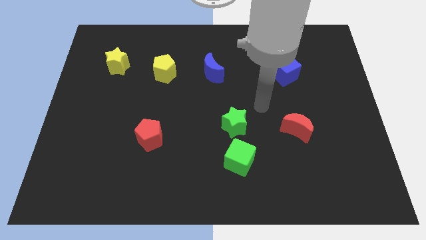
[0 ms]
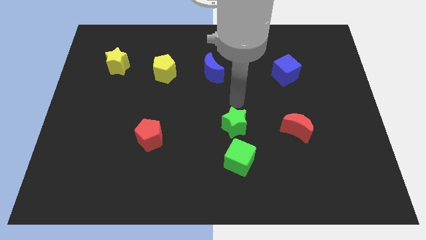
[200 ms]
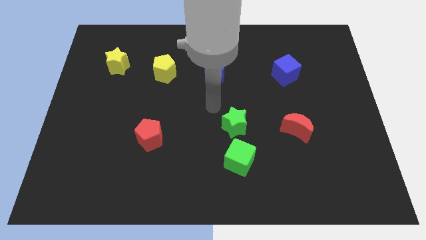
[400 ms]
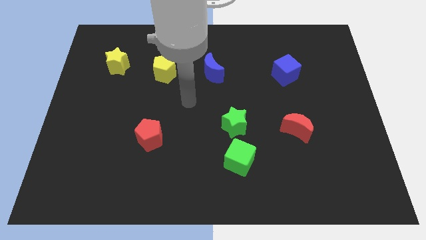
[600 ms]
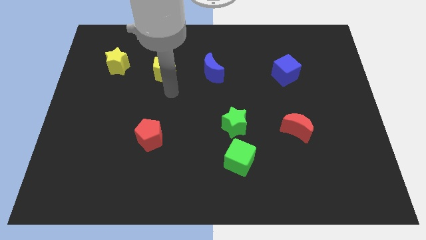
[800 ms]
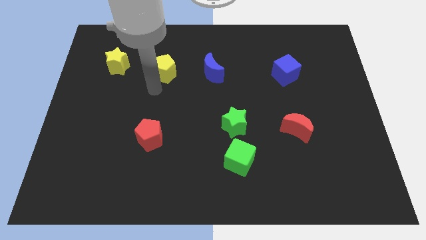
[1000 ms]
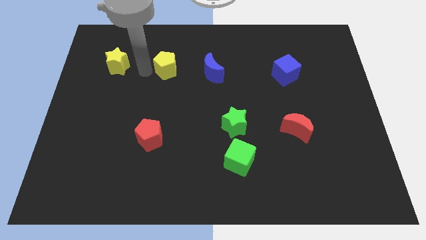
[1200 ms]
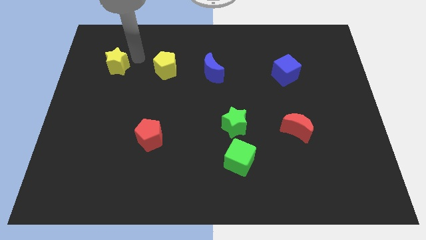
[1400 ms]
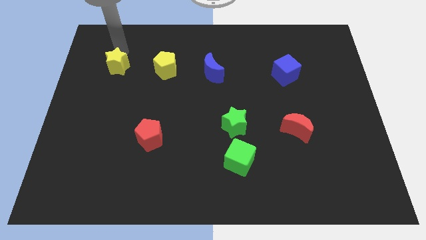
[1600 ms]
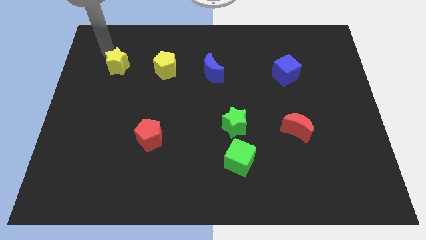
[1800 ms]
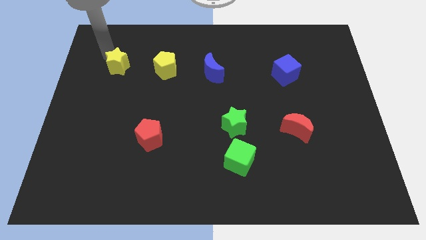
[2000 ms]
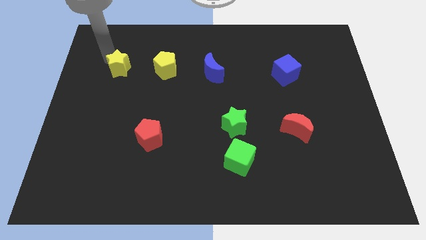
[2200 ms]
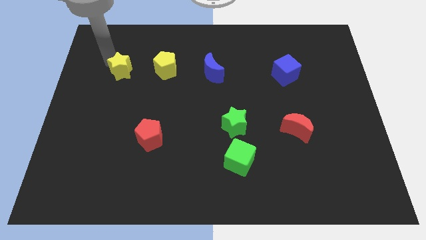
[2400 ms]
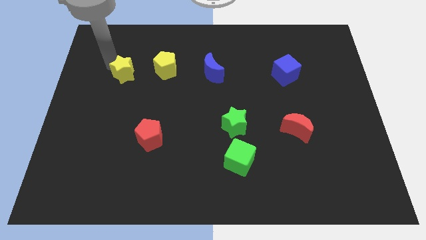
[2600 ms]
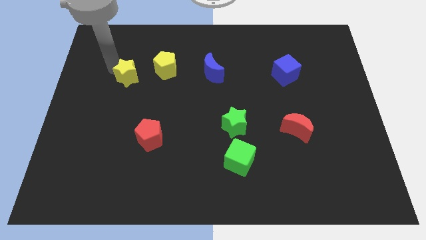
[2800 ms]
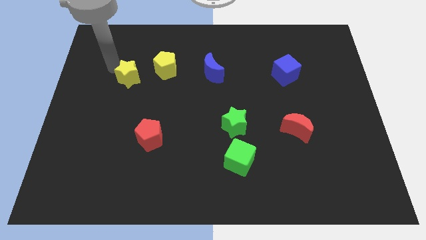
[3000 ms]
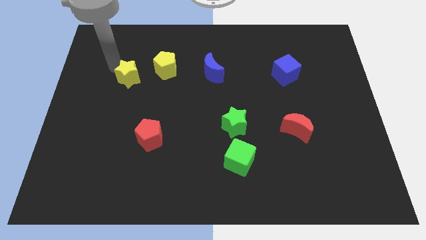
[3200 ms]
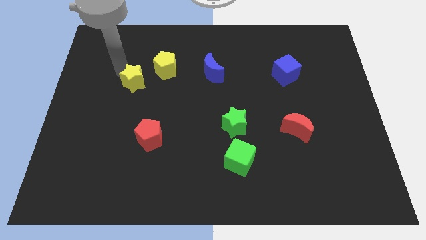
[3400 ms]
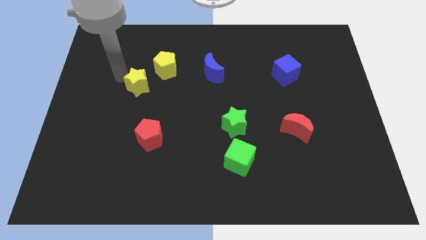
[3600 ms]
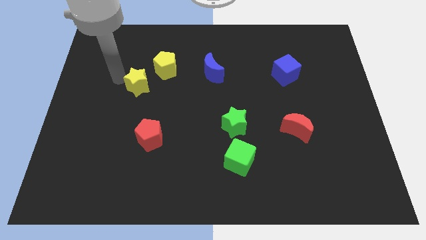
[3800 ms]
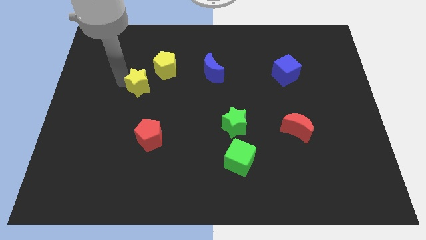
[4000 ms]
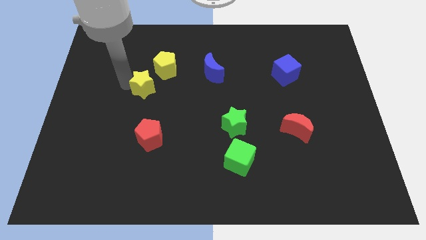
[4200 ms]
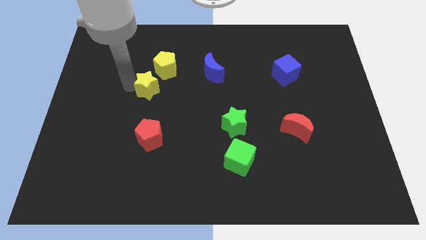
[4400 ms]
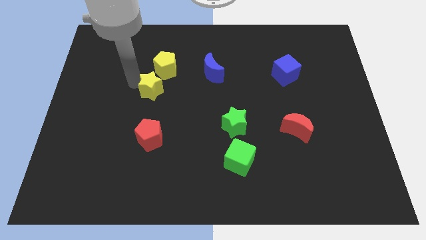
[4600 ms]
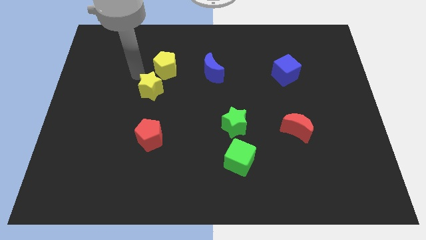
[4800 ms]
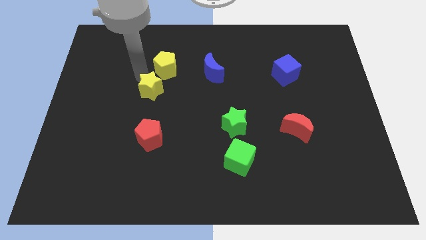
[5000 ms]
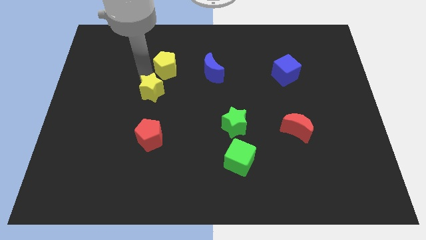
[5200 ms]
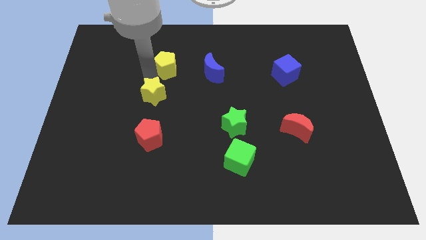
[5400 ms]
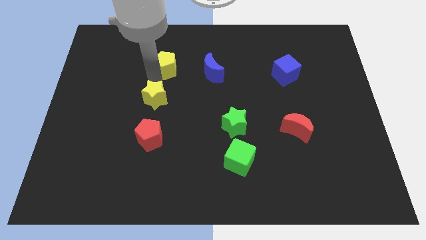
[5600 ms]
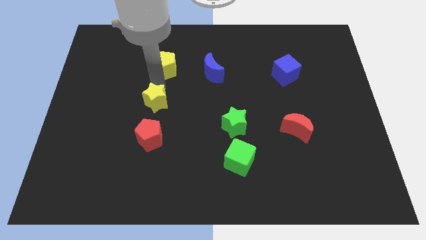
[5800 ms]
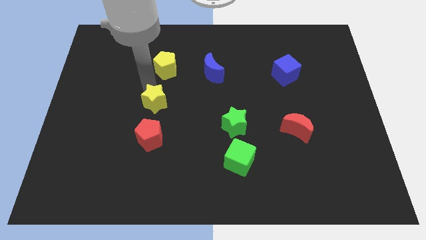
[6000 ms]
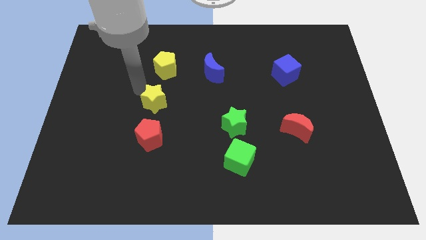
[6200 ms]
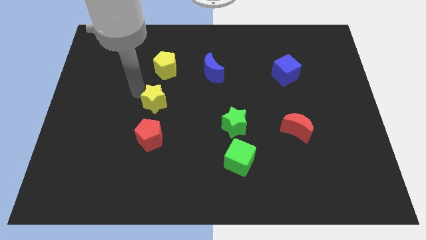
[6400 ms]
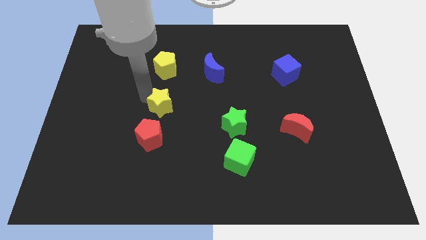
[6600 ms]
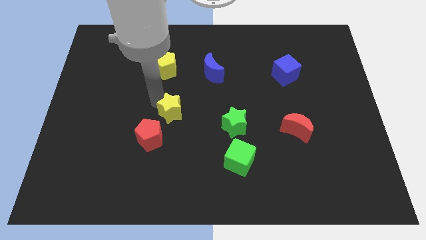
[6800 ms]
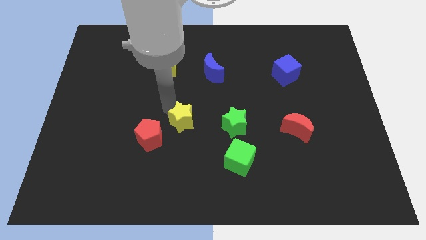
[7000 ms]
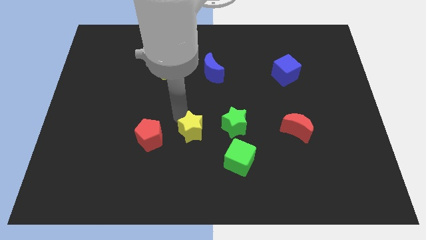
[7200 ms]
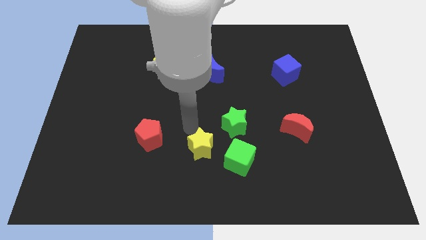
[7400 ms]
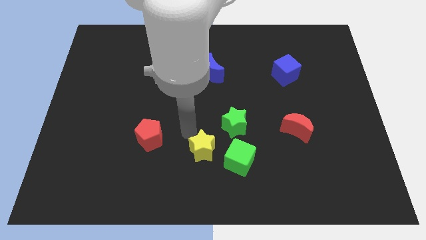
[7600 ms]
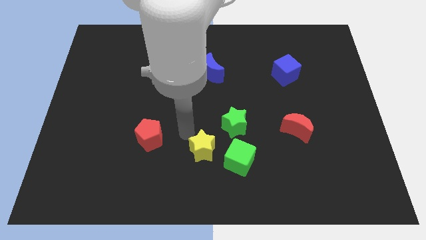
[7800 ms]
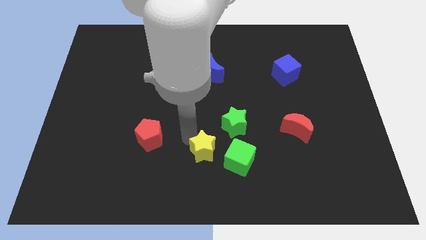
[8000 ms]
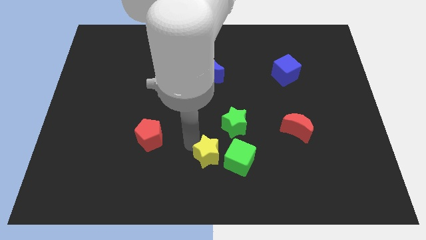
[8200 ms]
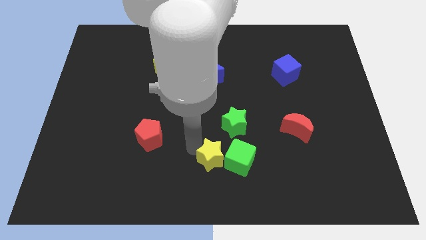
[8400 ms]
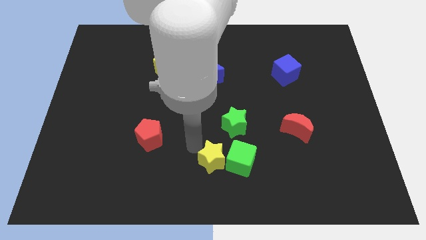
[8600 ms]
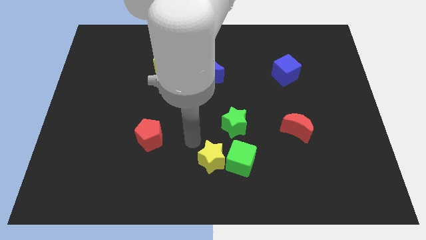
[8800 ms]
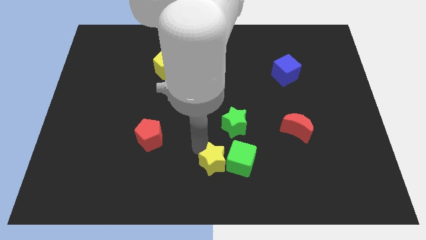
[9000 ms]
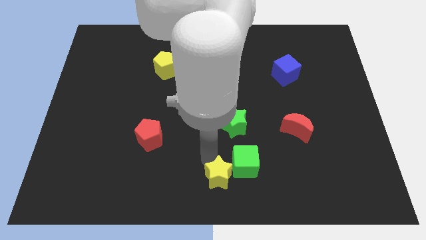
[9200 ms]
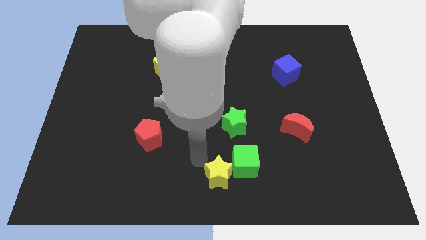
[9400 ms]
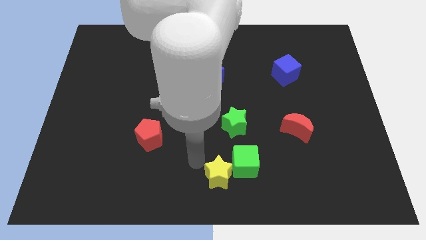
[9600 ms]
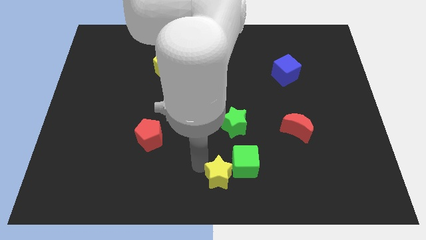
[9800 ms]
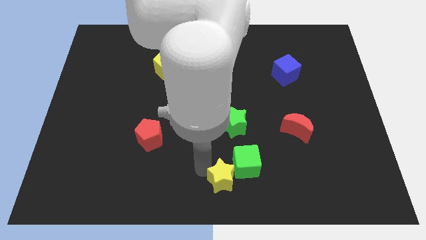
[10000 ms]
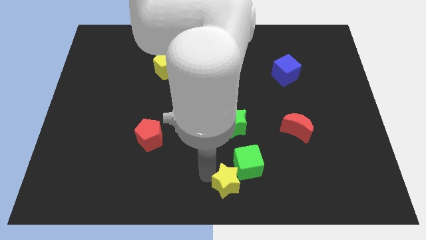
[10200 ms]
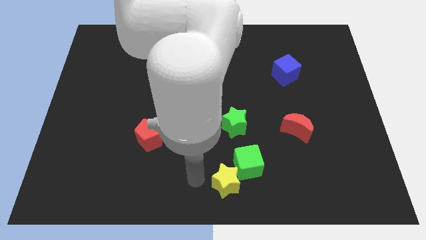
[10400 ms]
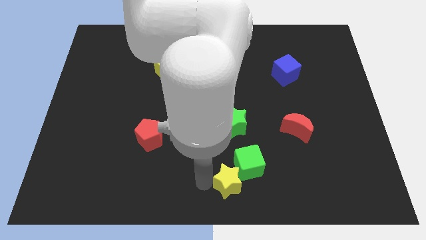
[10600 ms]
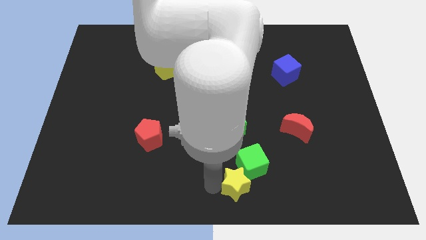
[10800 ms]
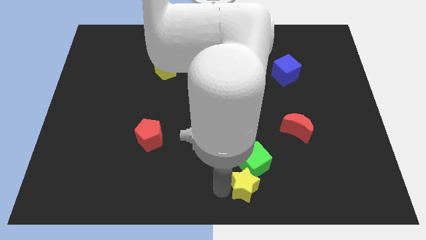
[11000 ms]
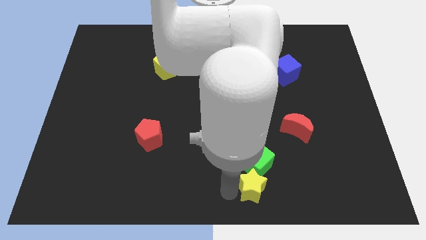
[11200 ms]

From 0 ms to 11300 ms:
slide the yellow star diagonally down and to the right of the green cube

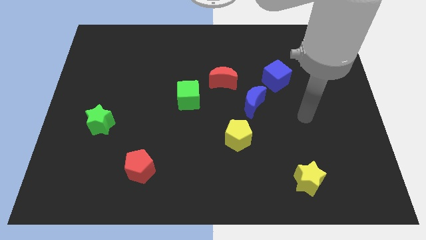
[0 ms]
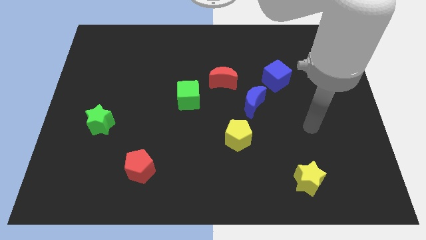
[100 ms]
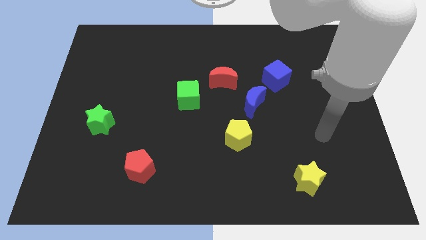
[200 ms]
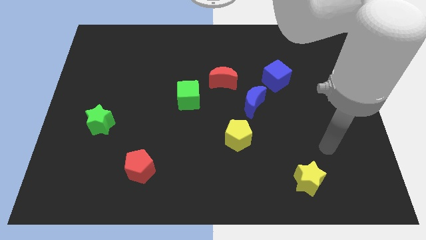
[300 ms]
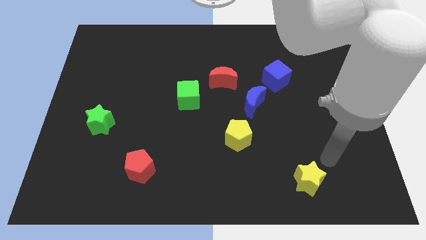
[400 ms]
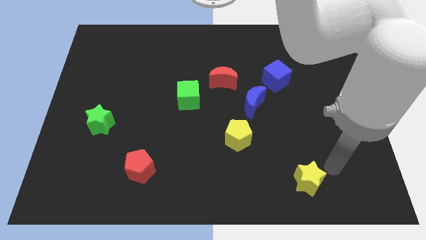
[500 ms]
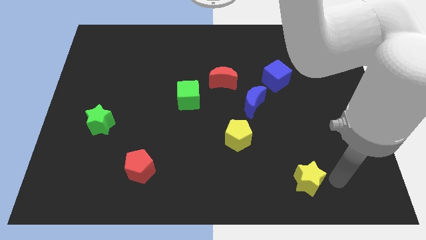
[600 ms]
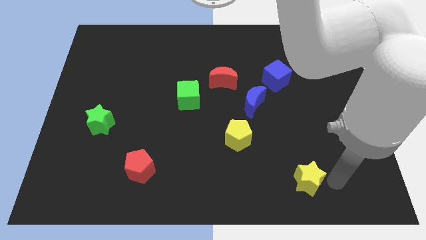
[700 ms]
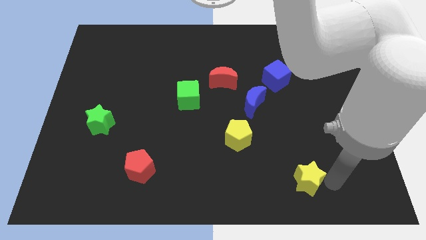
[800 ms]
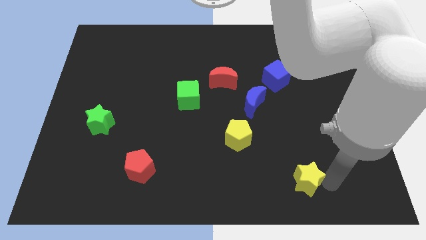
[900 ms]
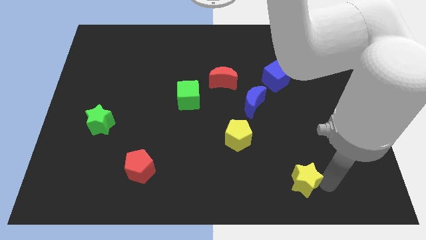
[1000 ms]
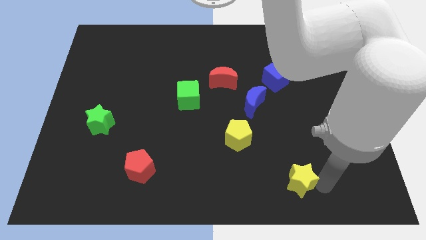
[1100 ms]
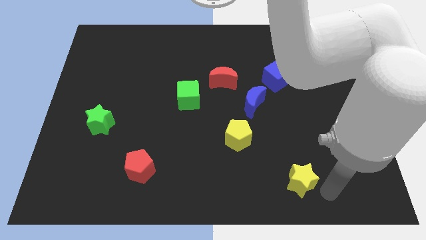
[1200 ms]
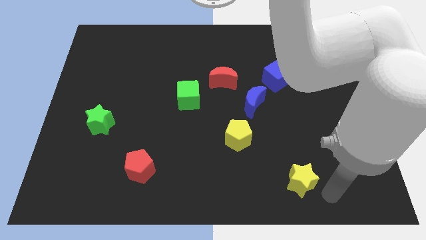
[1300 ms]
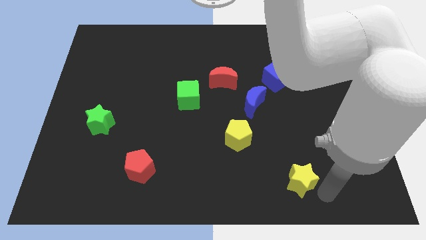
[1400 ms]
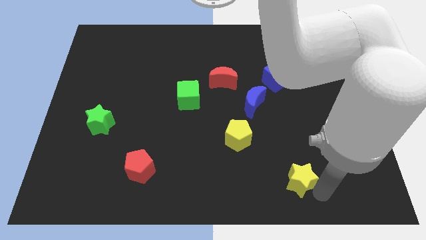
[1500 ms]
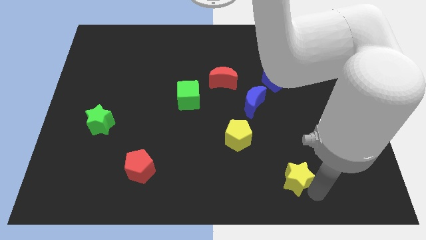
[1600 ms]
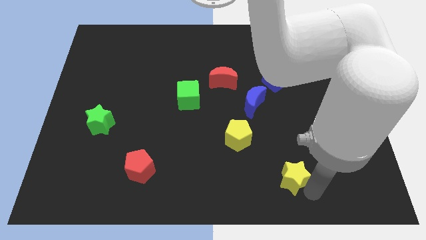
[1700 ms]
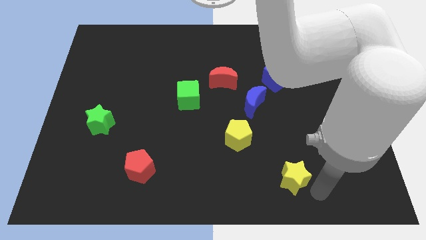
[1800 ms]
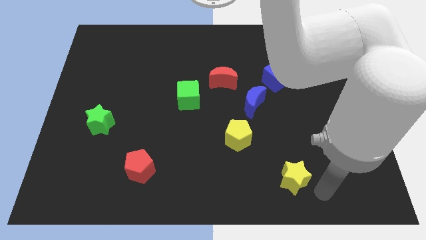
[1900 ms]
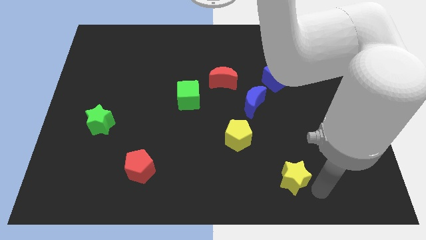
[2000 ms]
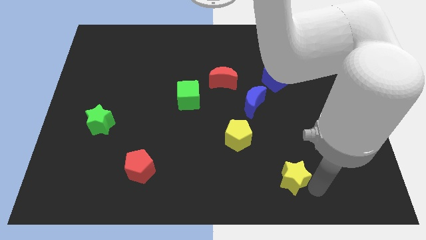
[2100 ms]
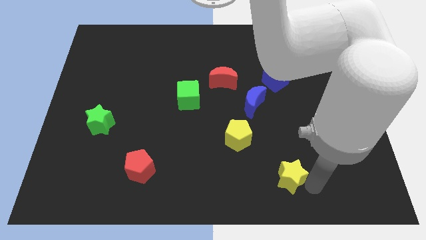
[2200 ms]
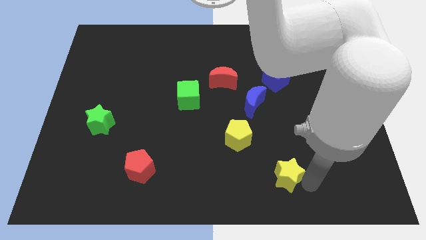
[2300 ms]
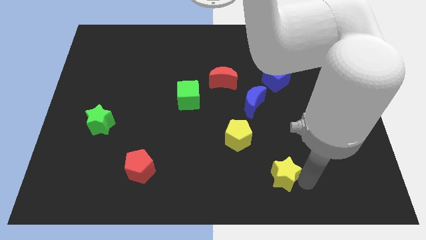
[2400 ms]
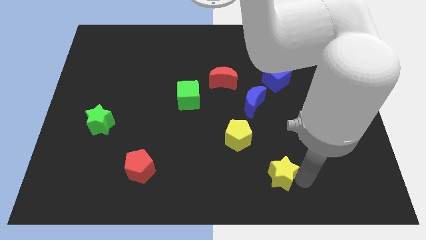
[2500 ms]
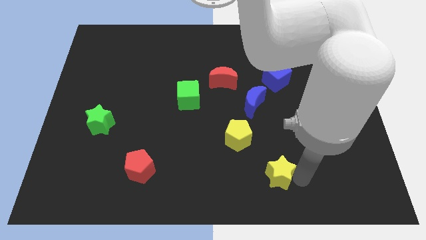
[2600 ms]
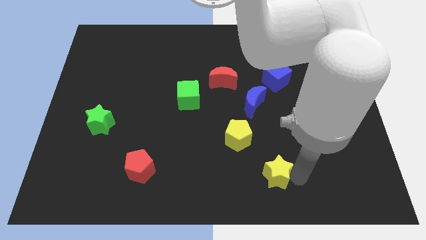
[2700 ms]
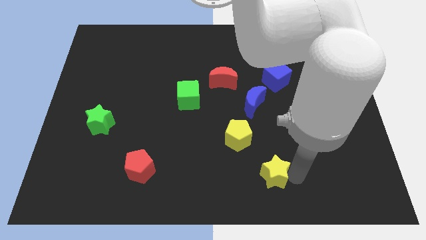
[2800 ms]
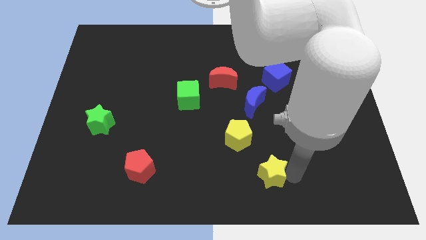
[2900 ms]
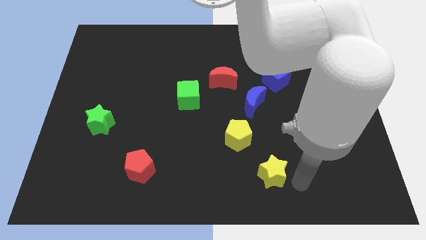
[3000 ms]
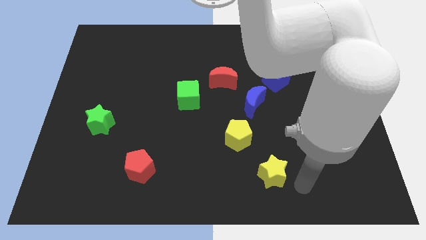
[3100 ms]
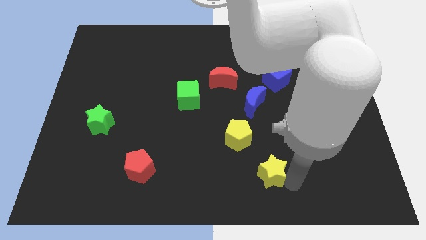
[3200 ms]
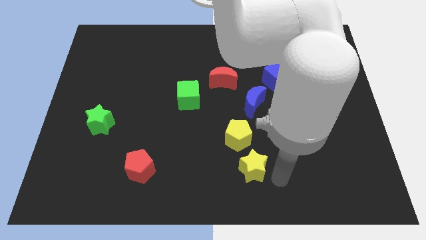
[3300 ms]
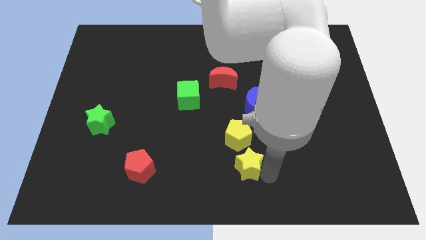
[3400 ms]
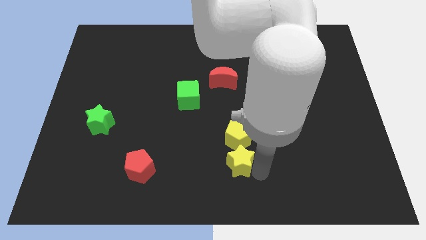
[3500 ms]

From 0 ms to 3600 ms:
push the yellow star diagonally down and to the left of the yellow pentagon
